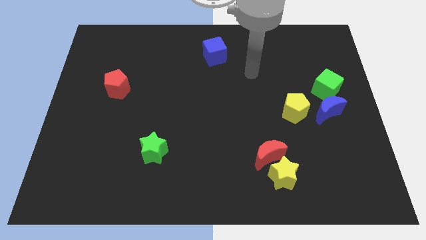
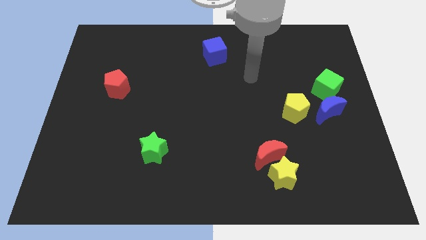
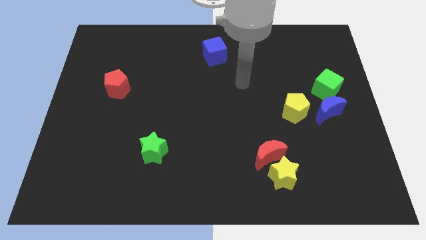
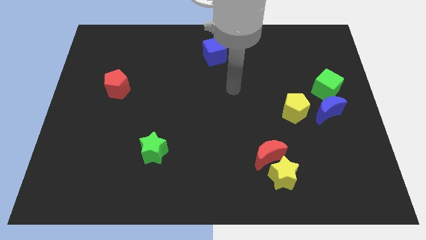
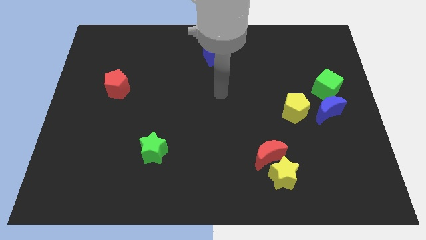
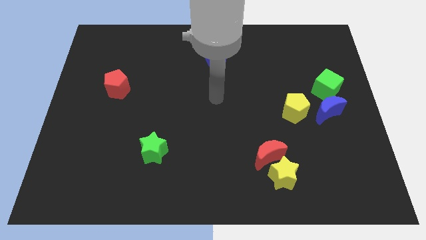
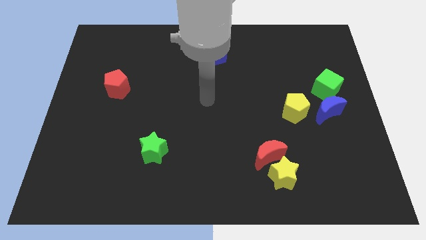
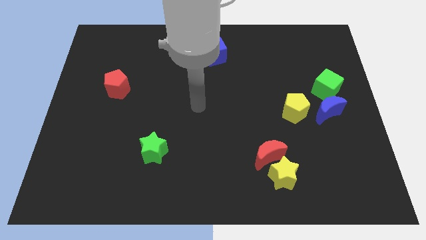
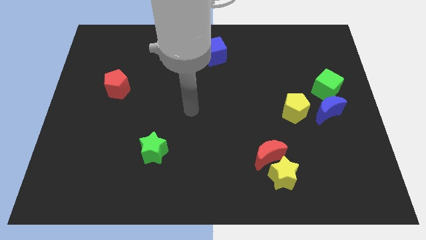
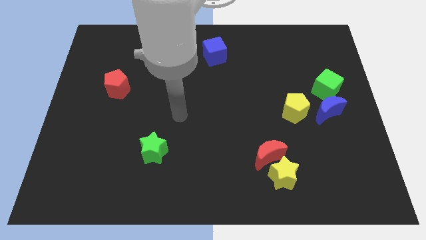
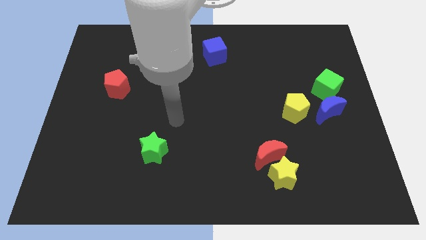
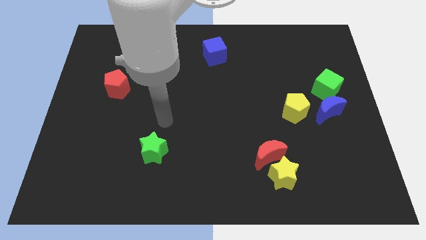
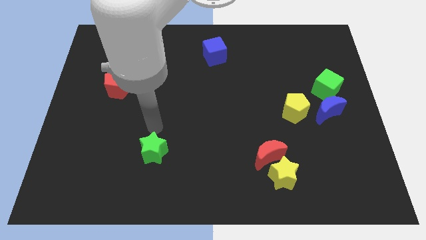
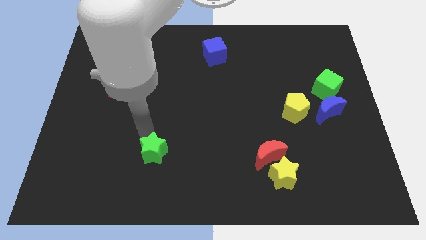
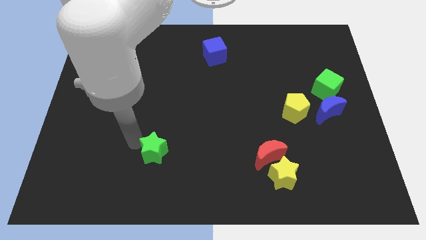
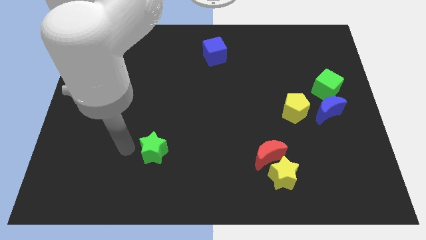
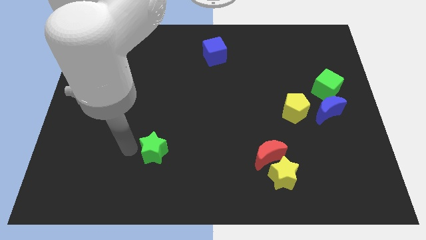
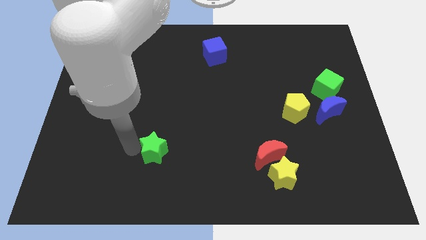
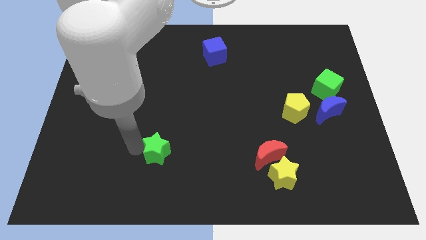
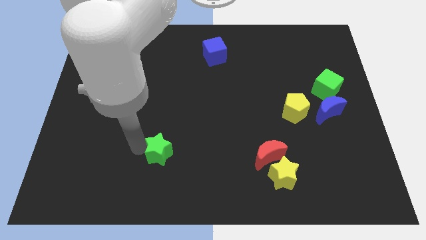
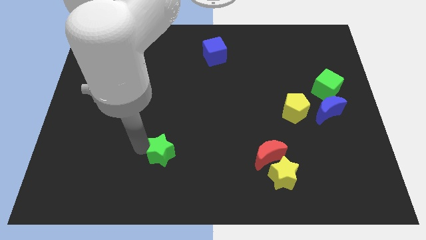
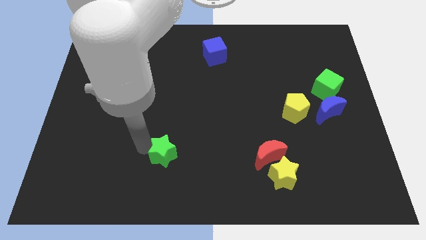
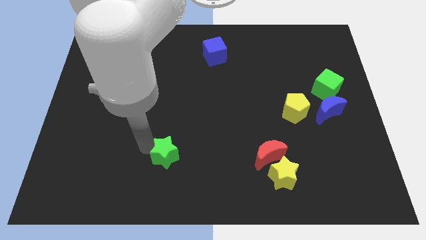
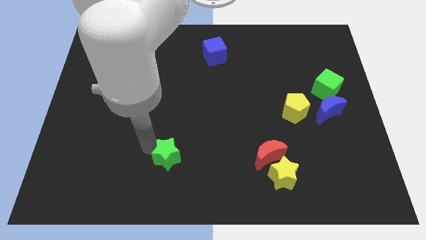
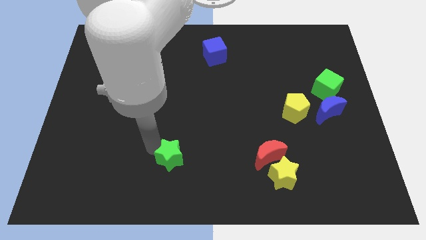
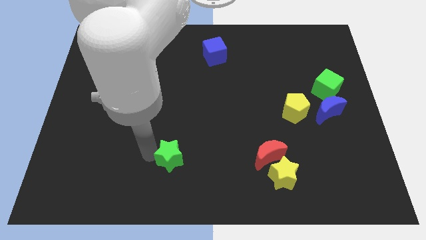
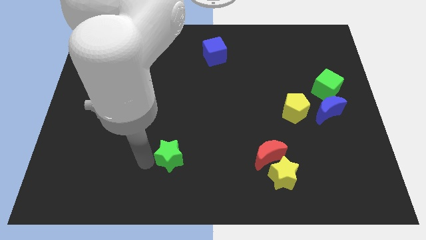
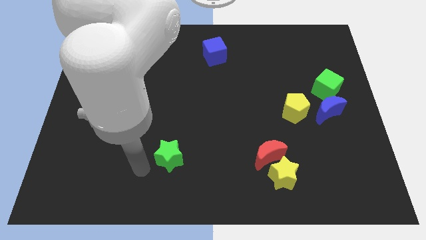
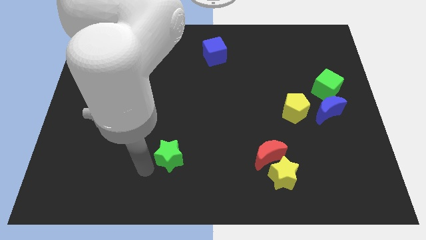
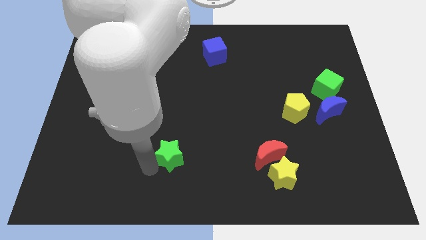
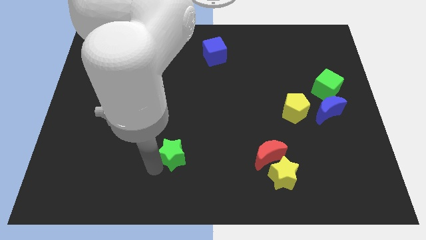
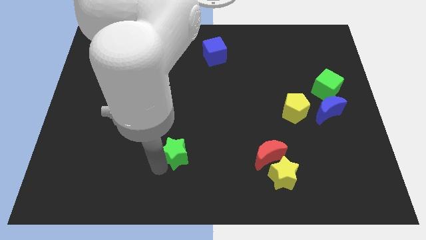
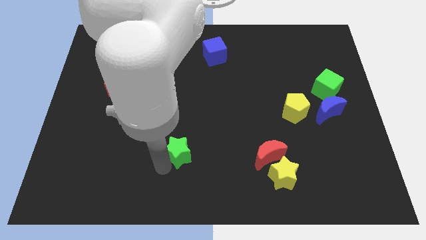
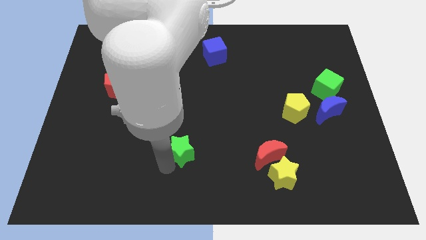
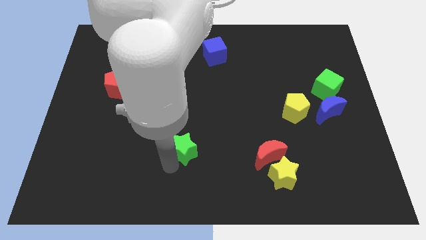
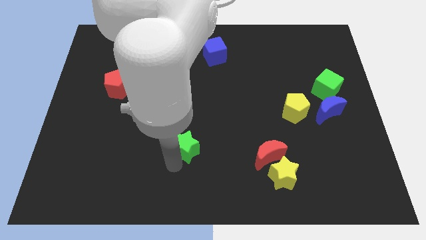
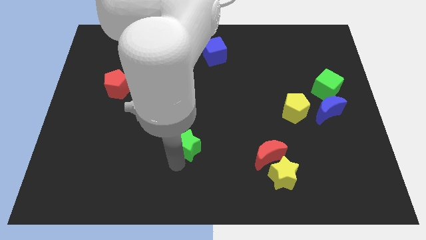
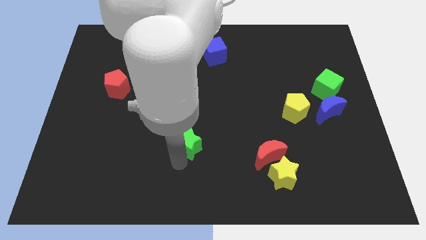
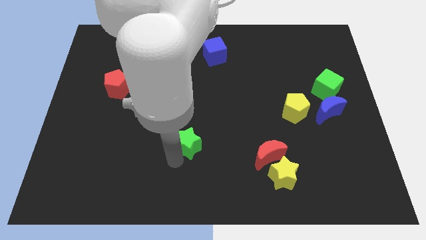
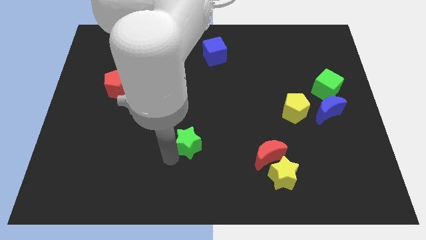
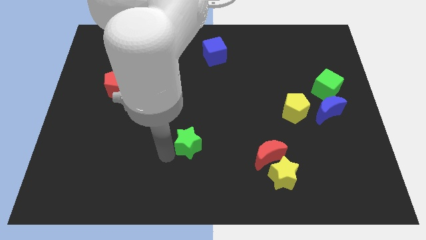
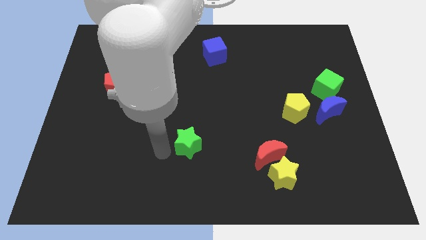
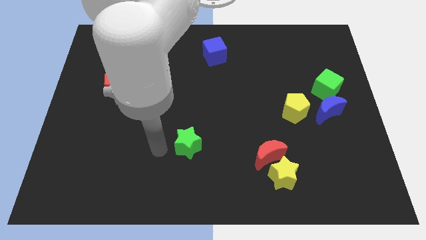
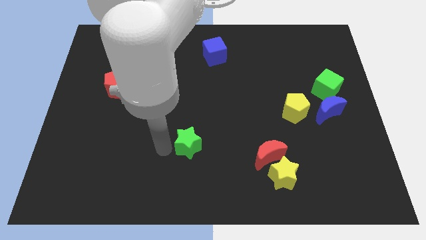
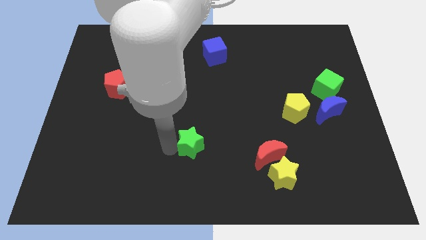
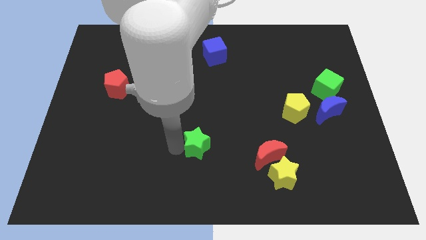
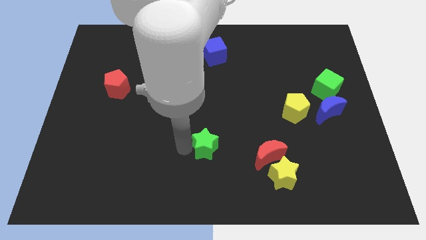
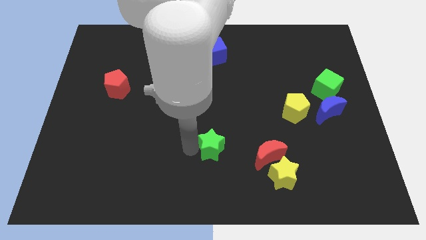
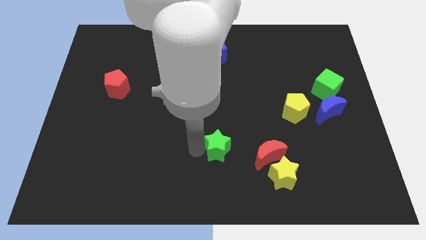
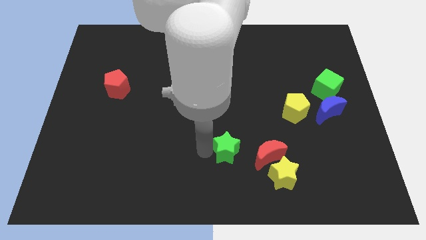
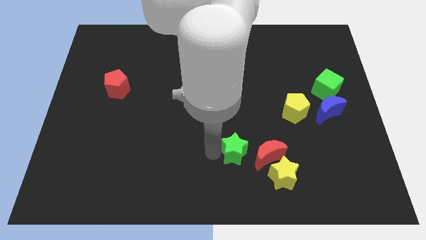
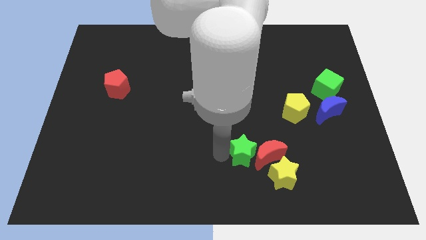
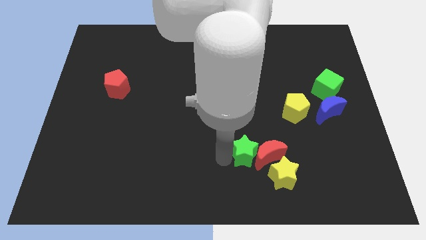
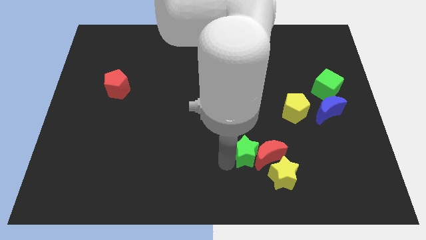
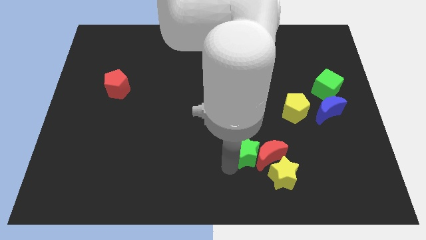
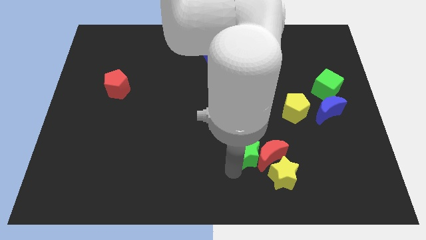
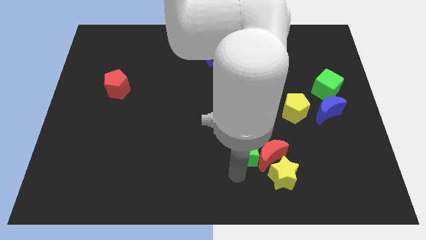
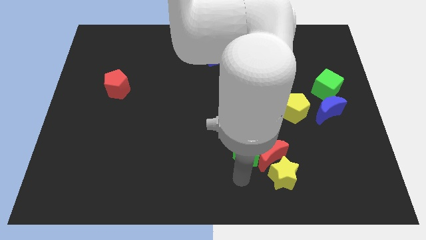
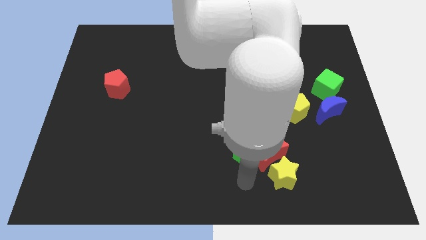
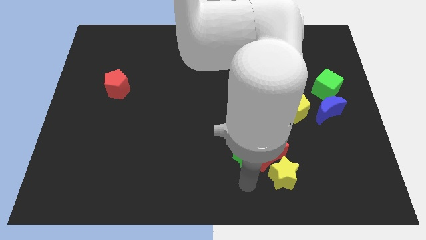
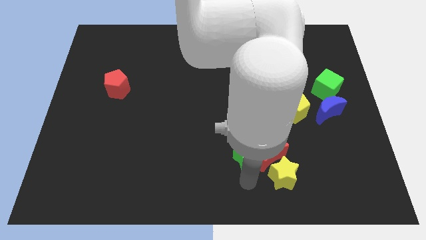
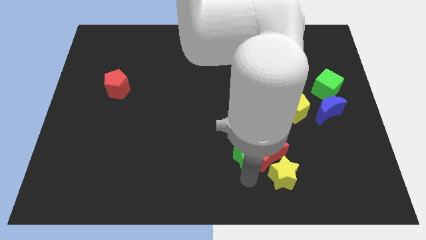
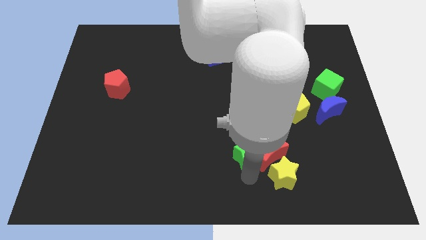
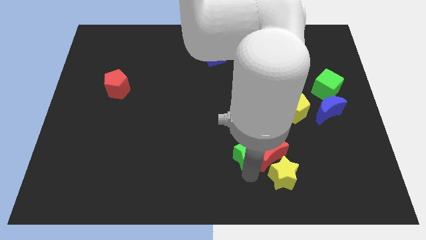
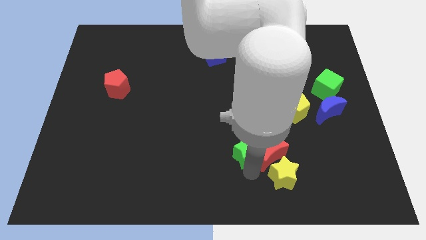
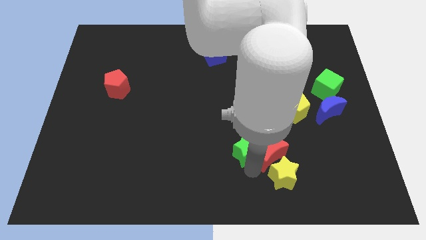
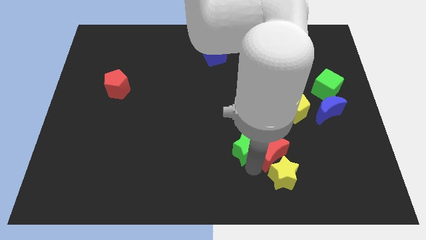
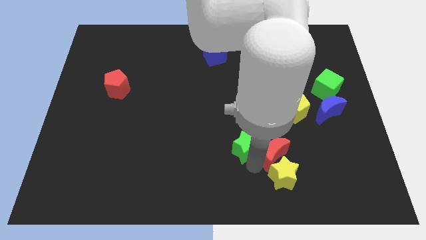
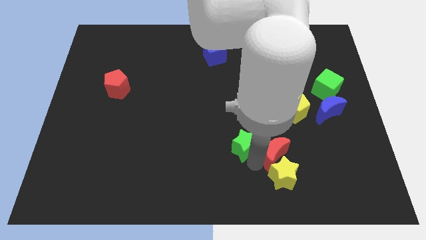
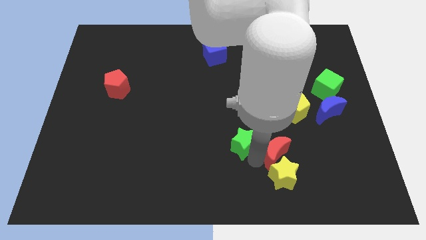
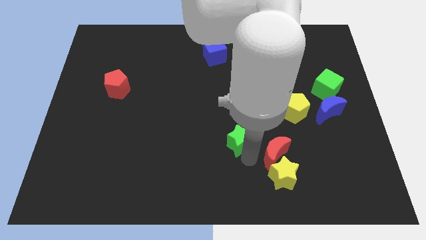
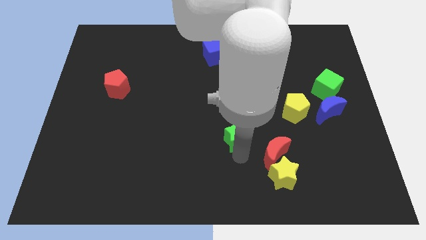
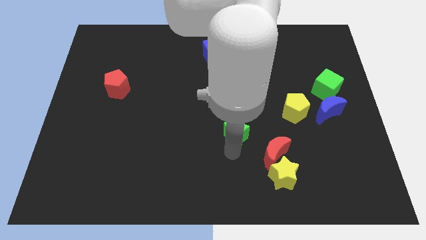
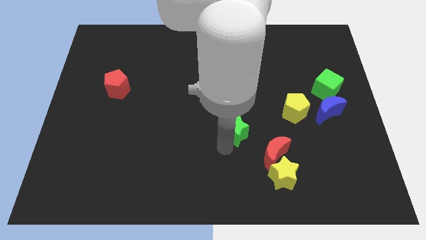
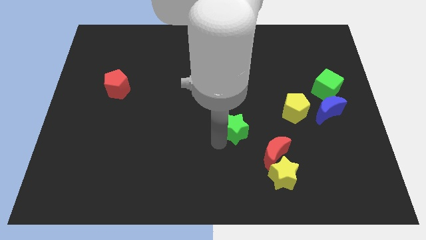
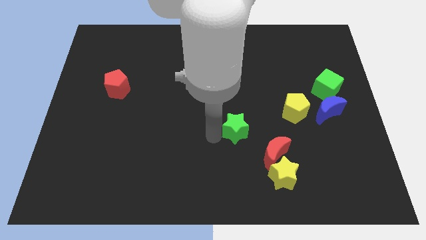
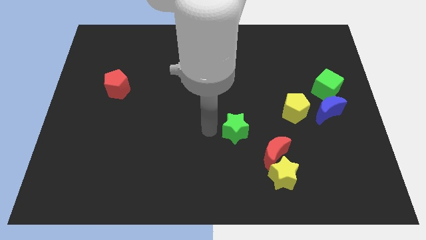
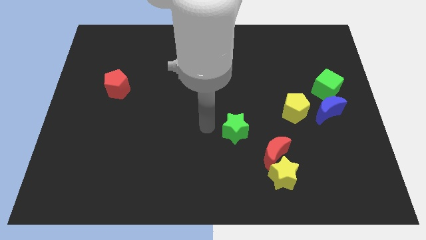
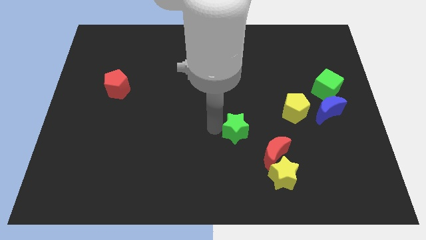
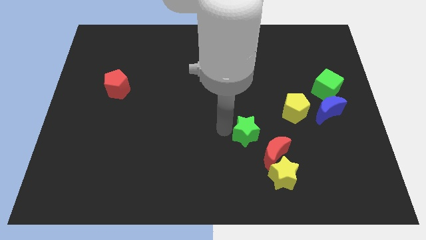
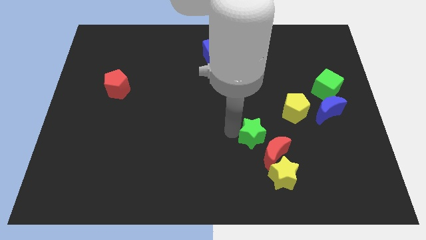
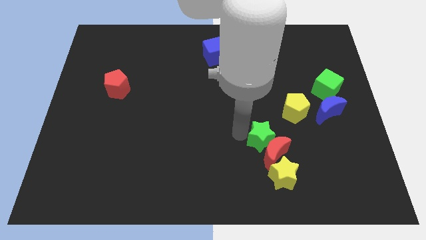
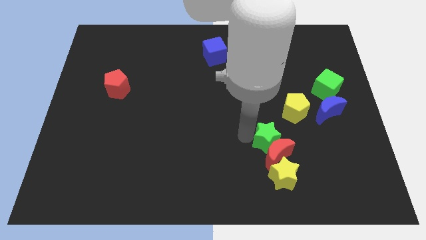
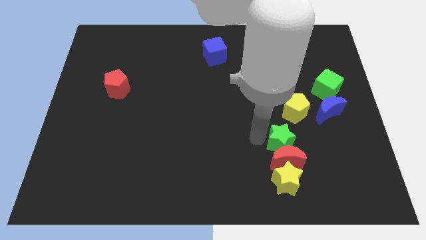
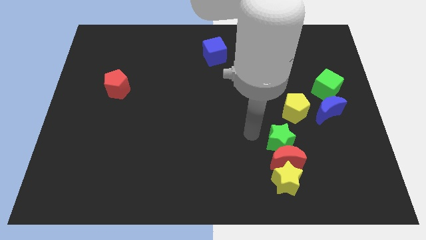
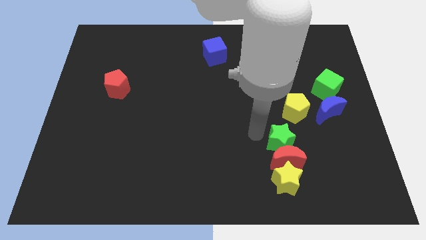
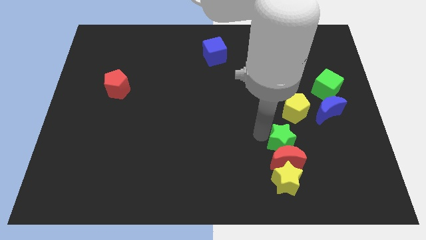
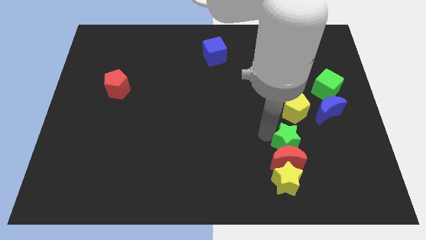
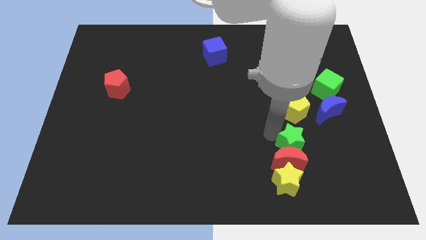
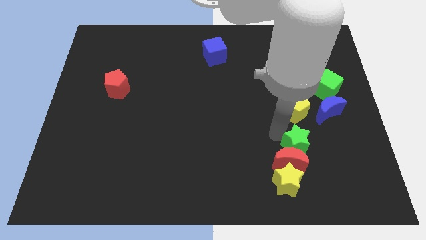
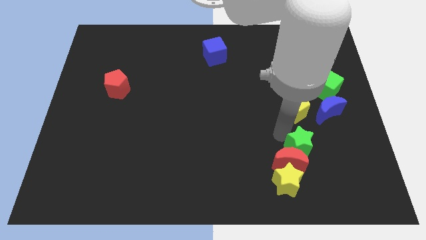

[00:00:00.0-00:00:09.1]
push the green star to the right side of the red moon
